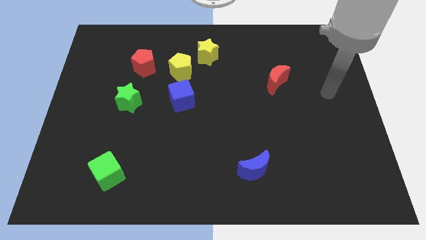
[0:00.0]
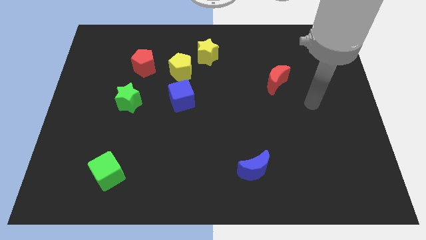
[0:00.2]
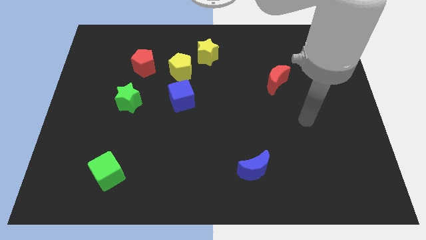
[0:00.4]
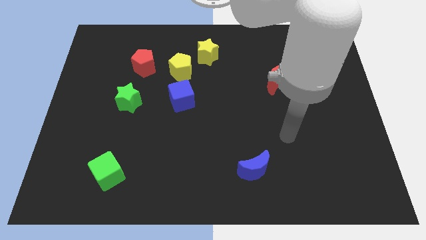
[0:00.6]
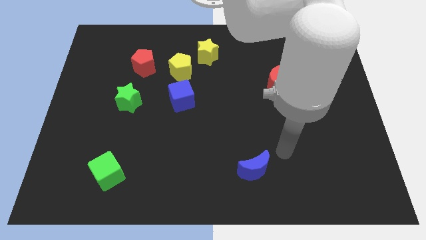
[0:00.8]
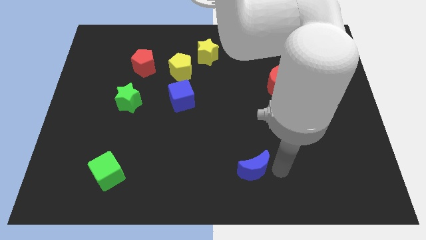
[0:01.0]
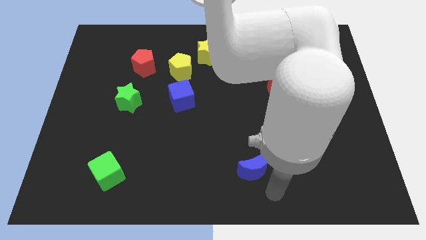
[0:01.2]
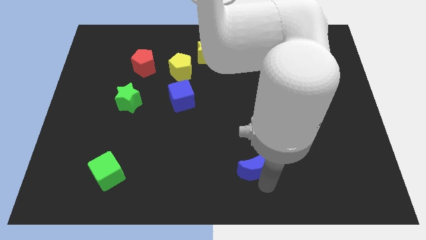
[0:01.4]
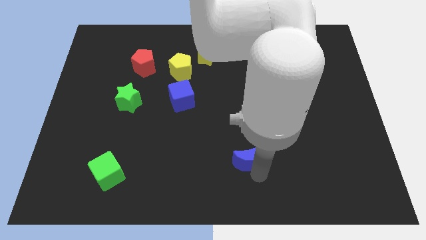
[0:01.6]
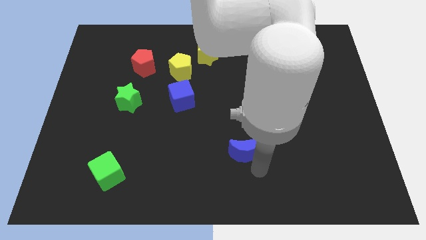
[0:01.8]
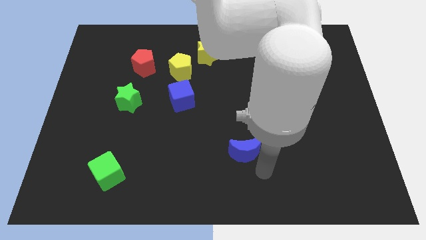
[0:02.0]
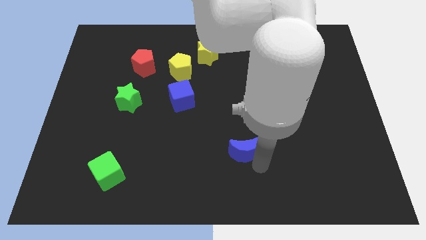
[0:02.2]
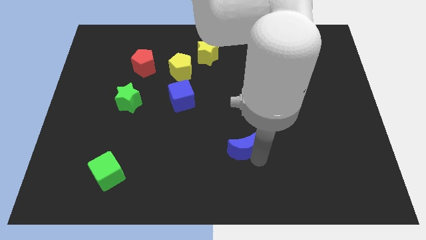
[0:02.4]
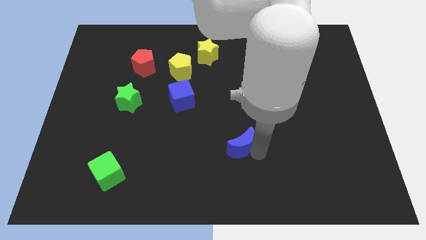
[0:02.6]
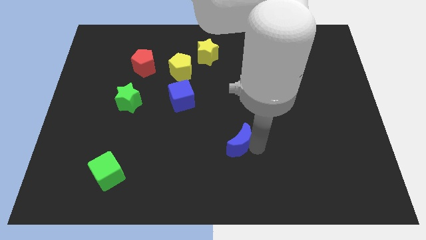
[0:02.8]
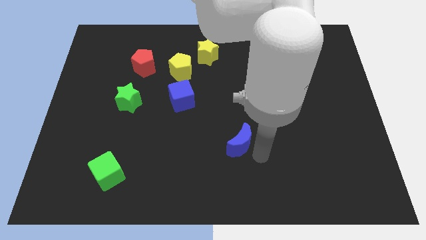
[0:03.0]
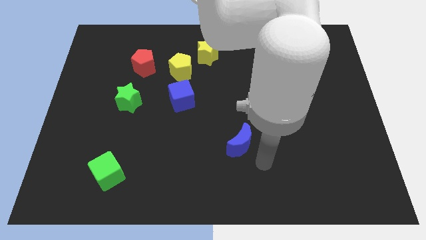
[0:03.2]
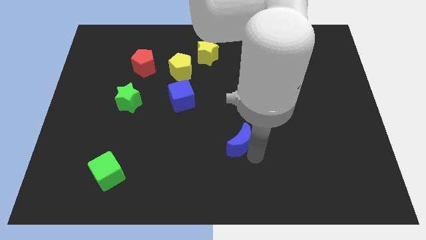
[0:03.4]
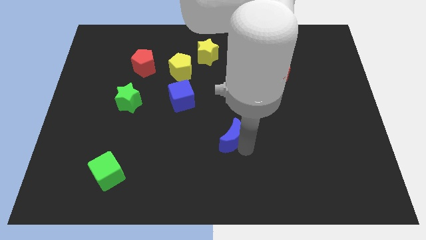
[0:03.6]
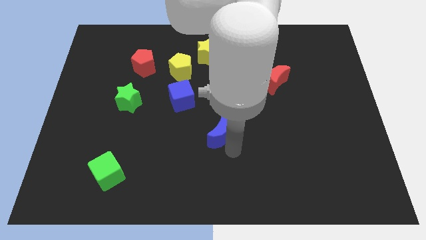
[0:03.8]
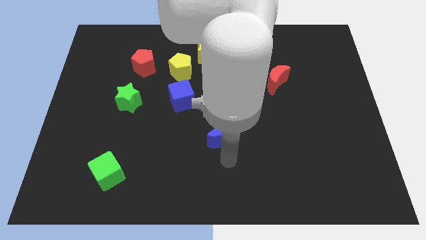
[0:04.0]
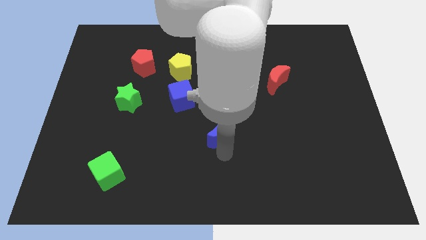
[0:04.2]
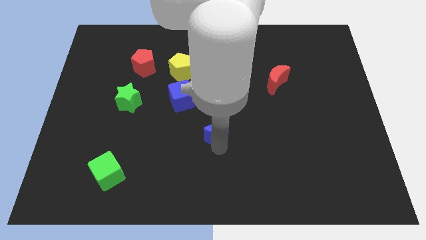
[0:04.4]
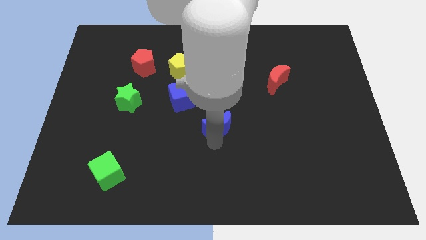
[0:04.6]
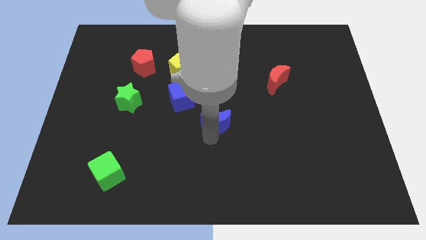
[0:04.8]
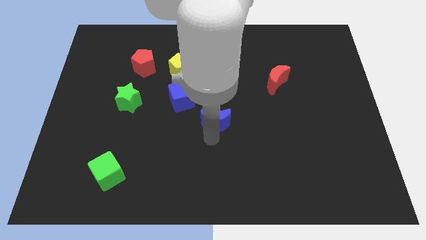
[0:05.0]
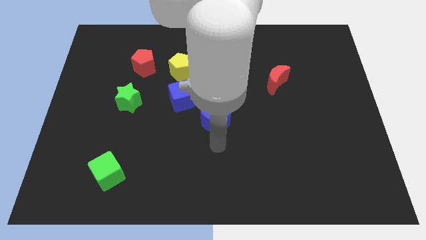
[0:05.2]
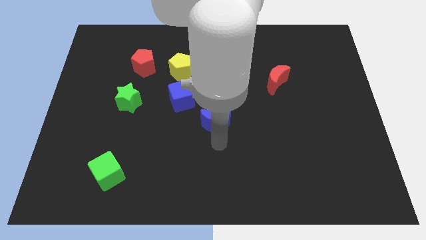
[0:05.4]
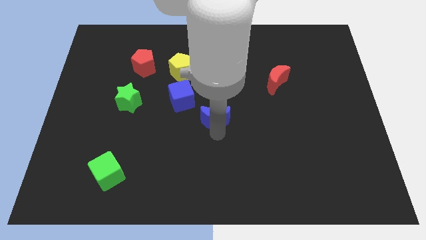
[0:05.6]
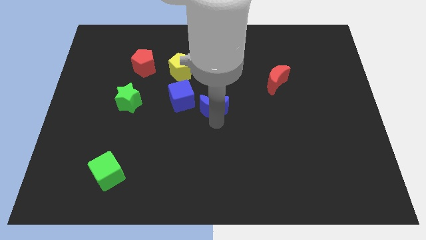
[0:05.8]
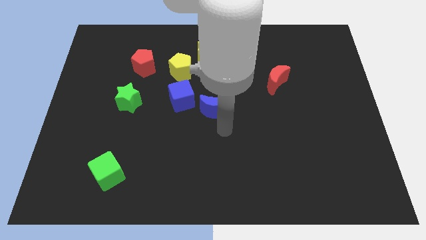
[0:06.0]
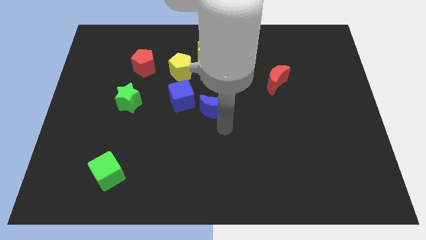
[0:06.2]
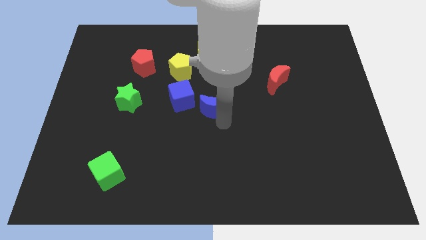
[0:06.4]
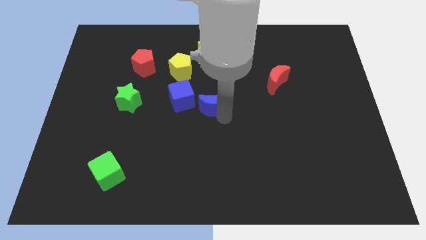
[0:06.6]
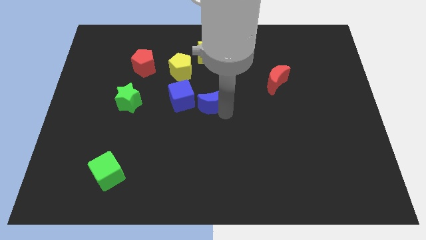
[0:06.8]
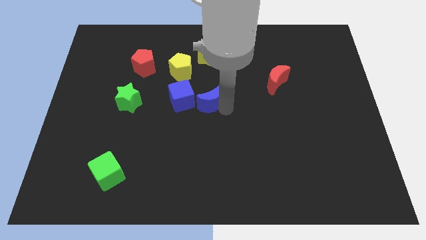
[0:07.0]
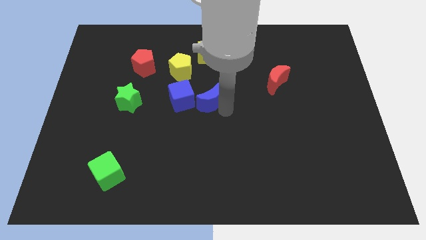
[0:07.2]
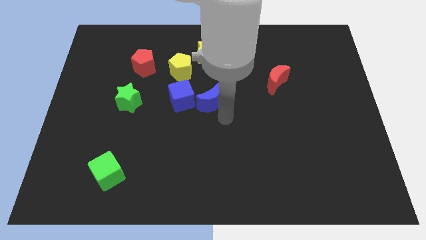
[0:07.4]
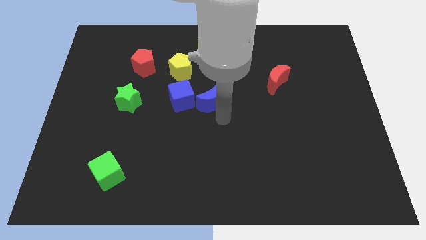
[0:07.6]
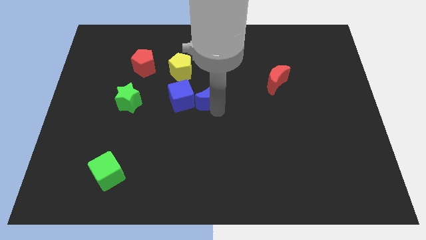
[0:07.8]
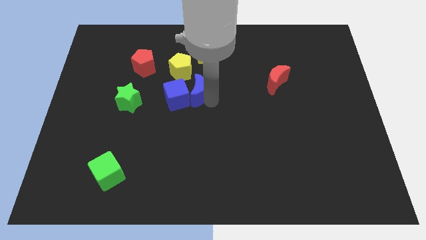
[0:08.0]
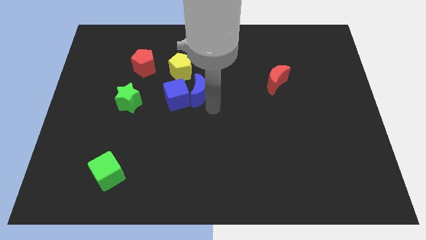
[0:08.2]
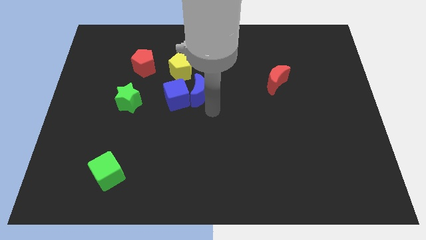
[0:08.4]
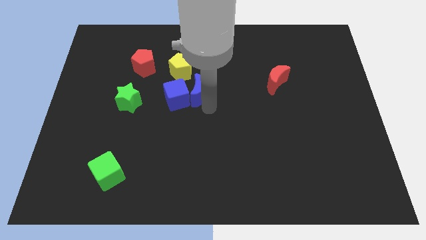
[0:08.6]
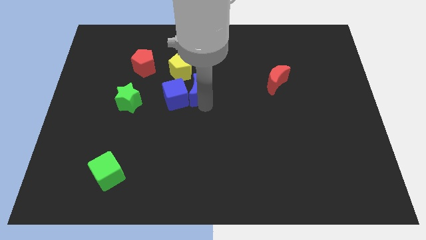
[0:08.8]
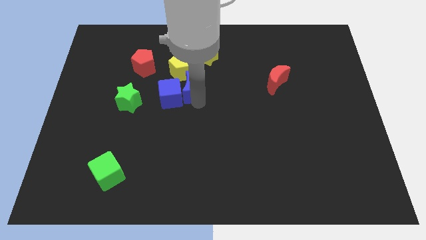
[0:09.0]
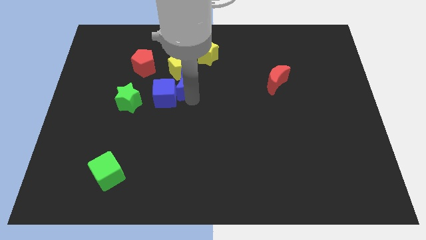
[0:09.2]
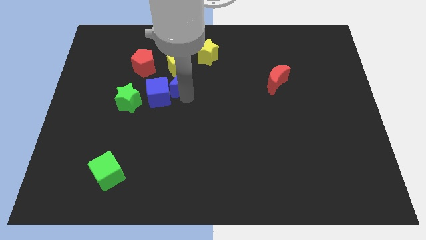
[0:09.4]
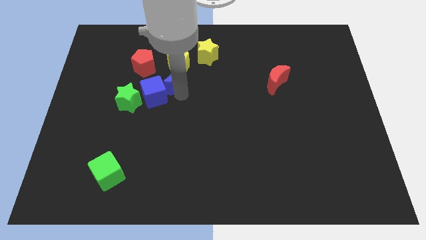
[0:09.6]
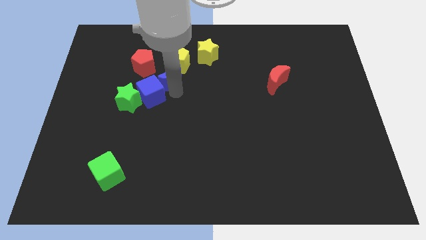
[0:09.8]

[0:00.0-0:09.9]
move the blue moon right of the red pentagon

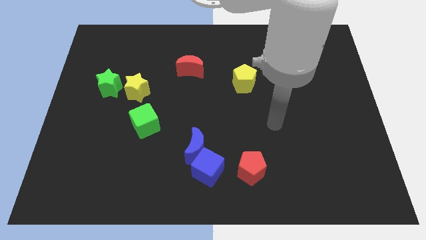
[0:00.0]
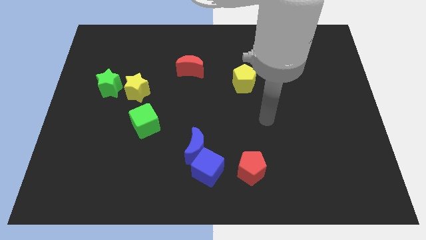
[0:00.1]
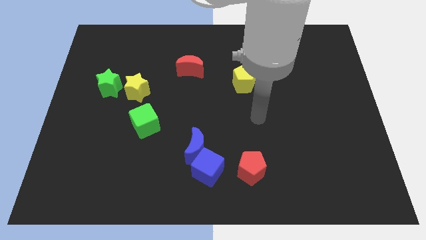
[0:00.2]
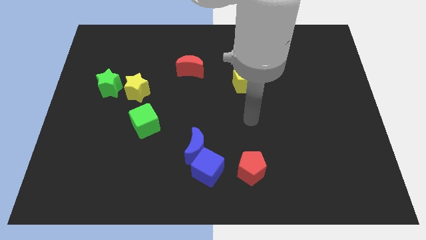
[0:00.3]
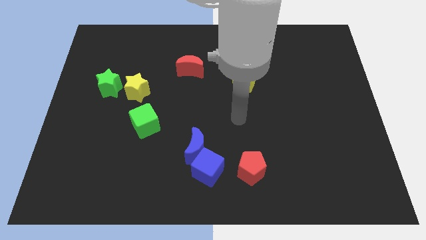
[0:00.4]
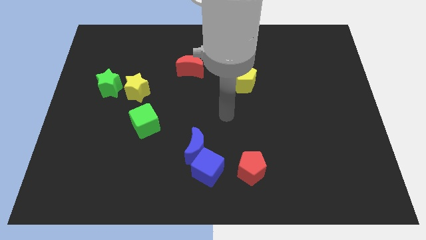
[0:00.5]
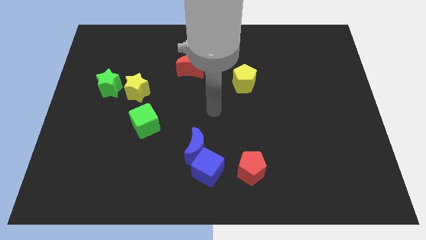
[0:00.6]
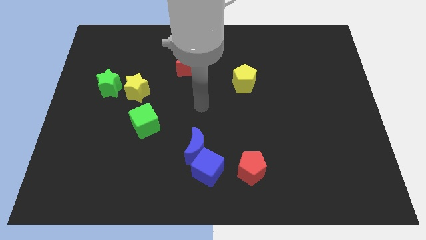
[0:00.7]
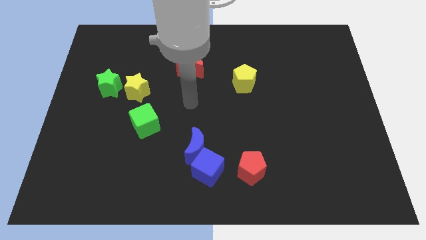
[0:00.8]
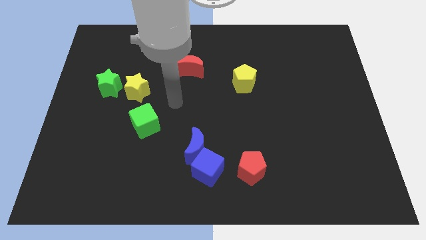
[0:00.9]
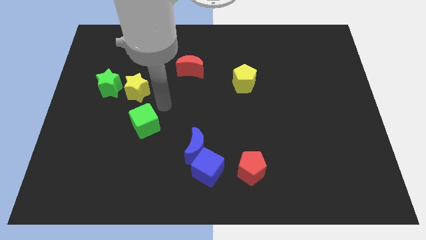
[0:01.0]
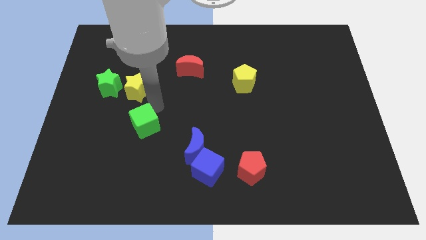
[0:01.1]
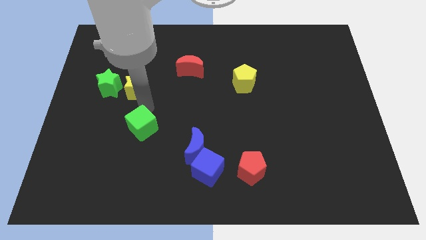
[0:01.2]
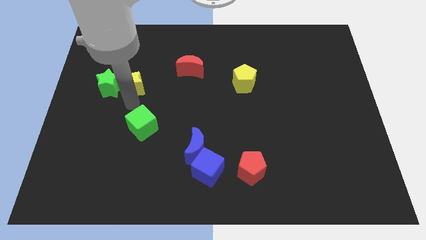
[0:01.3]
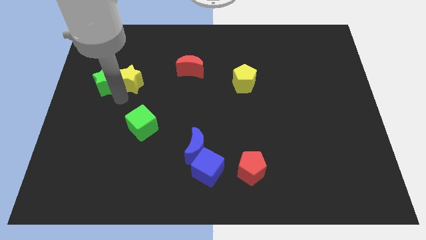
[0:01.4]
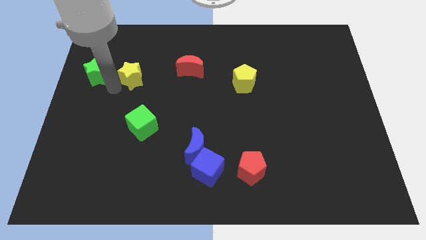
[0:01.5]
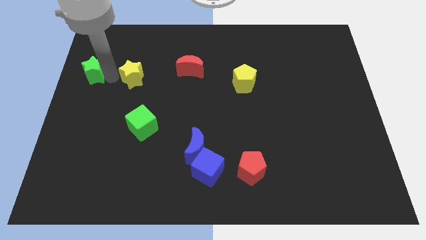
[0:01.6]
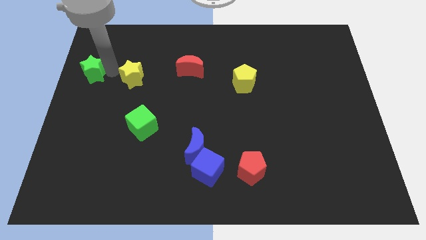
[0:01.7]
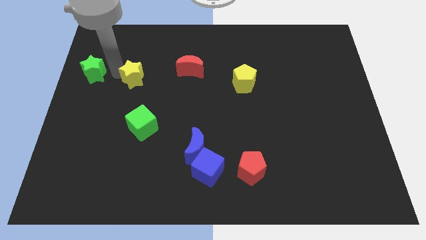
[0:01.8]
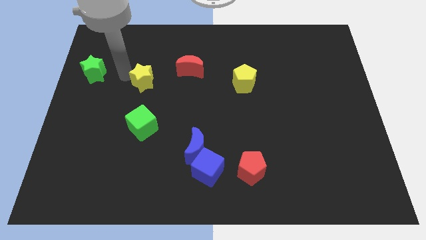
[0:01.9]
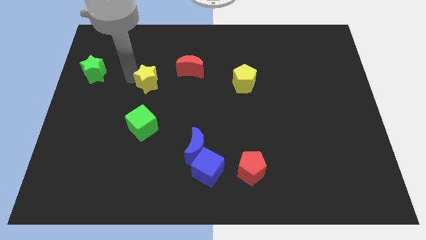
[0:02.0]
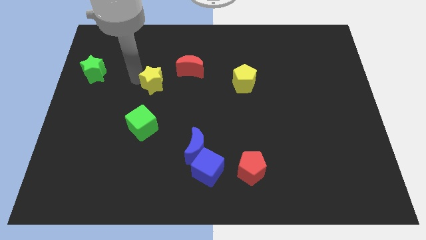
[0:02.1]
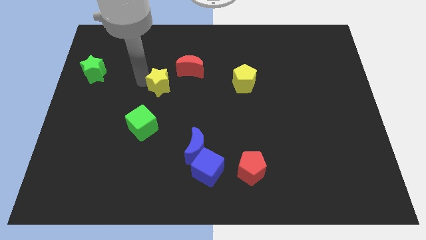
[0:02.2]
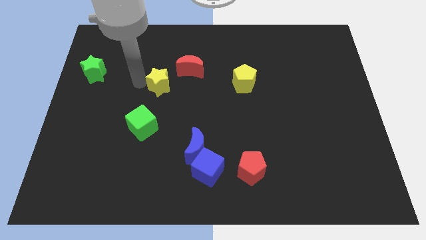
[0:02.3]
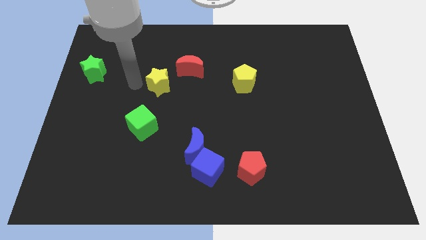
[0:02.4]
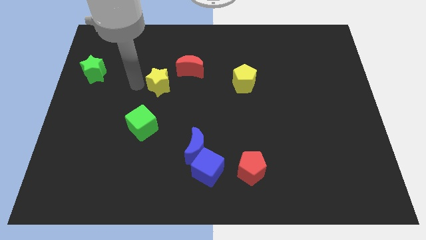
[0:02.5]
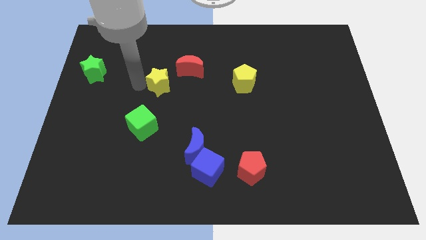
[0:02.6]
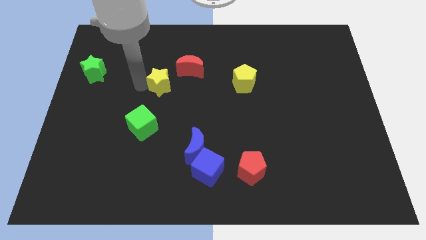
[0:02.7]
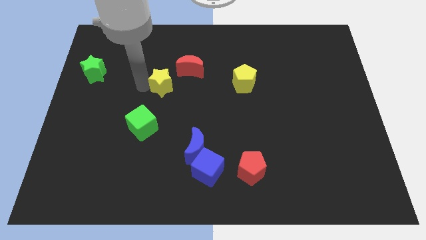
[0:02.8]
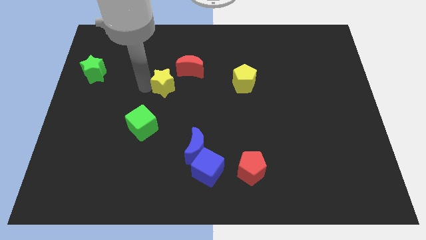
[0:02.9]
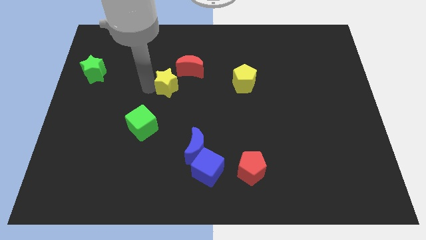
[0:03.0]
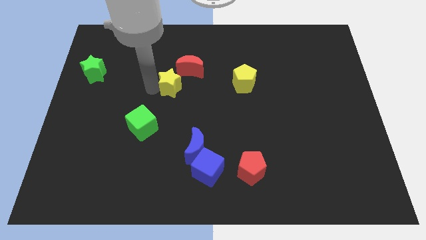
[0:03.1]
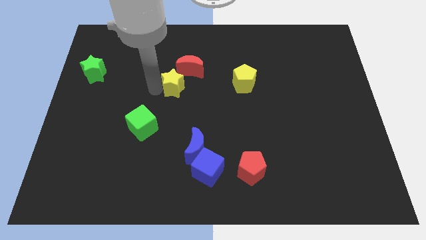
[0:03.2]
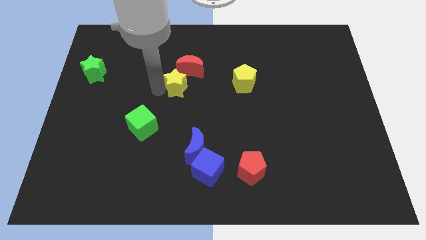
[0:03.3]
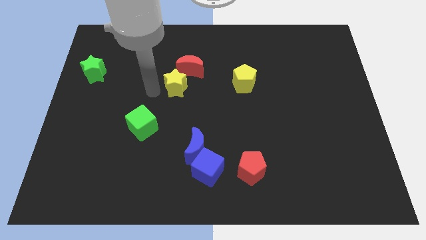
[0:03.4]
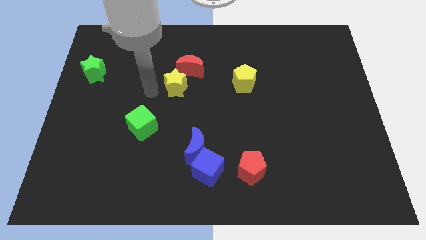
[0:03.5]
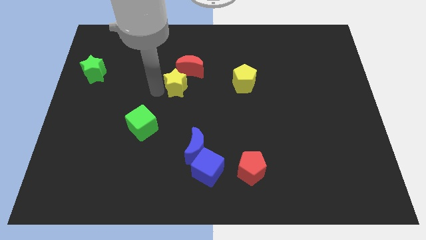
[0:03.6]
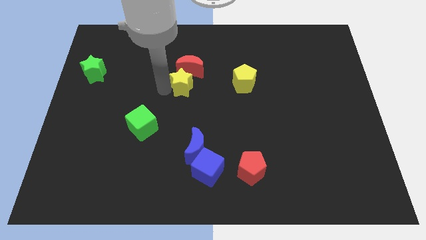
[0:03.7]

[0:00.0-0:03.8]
put the yellow star just left of the yellow pentagon
